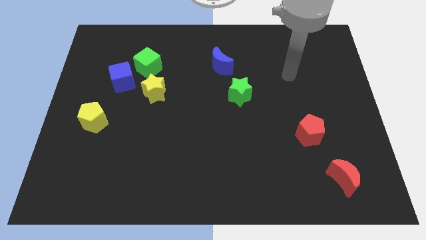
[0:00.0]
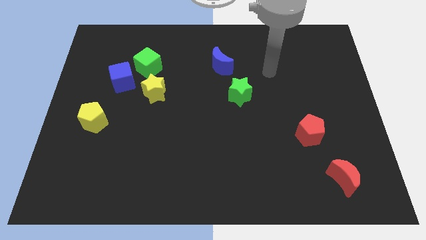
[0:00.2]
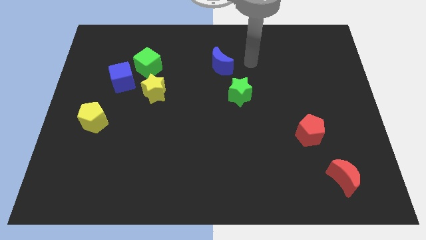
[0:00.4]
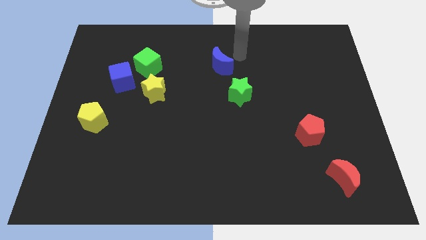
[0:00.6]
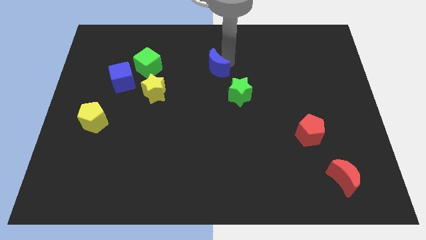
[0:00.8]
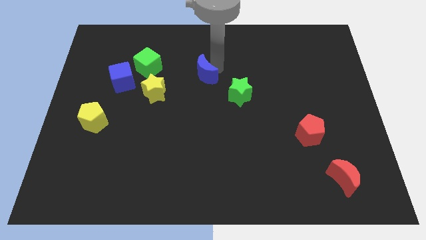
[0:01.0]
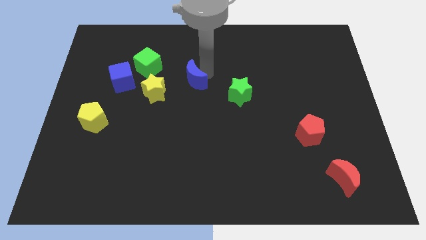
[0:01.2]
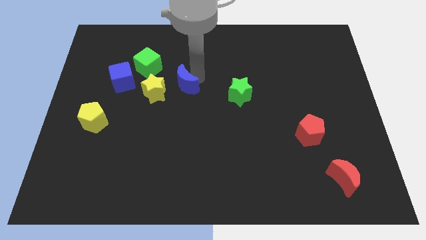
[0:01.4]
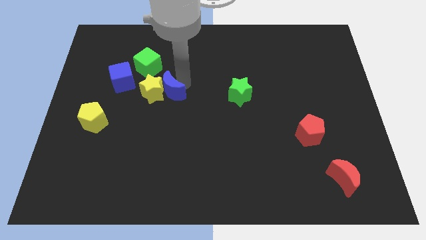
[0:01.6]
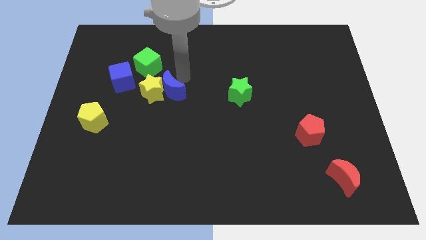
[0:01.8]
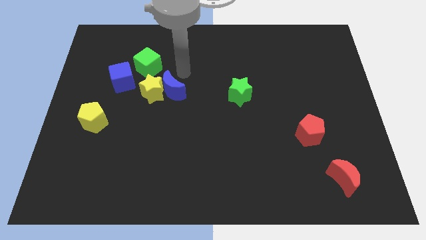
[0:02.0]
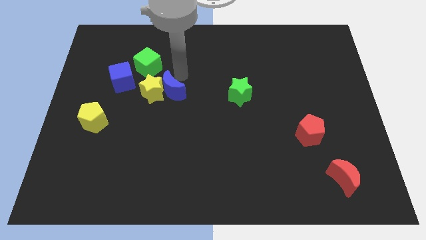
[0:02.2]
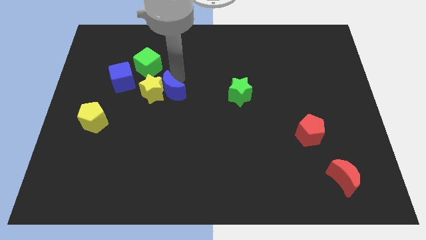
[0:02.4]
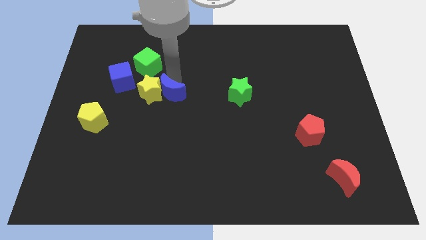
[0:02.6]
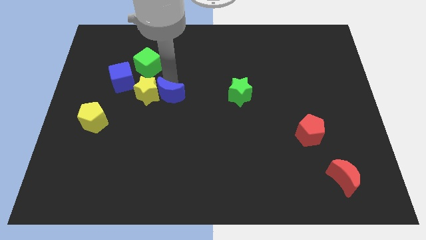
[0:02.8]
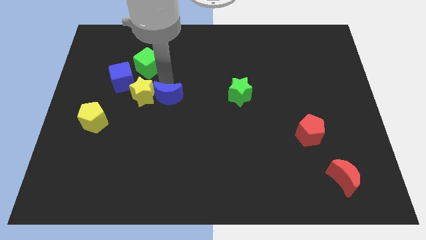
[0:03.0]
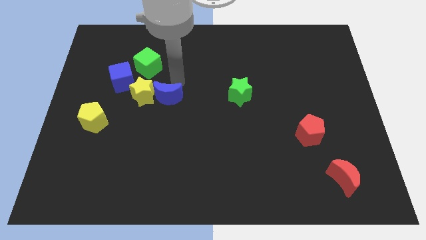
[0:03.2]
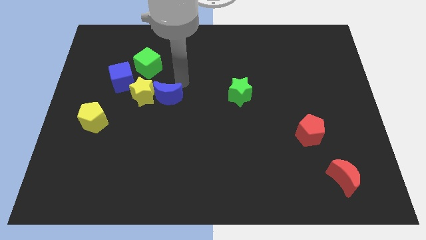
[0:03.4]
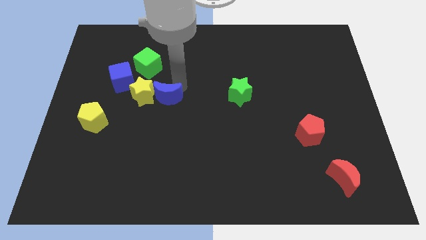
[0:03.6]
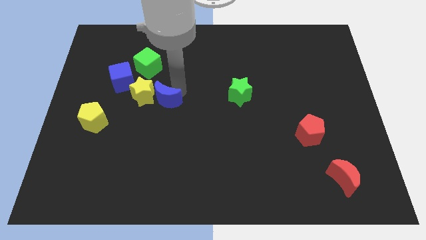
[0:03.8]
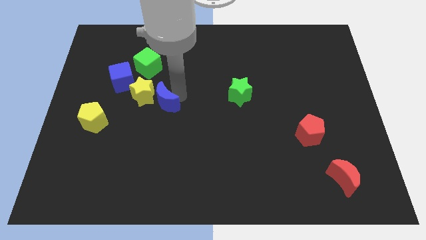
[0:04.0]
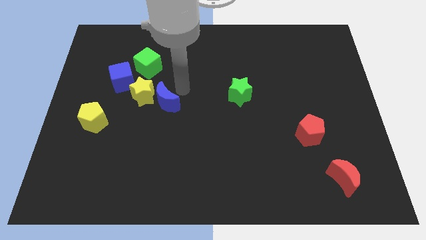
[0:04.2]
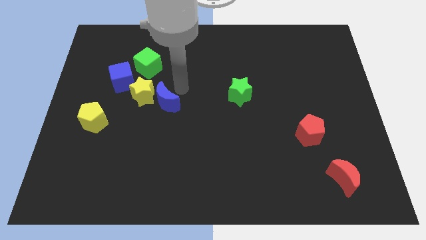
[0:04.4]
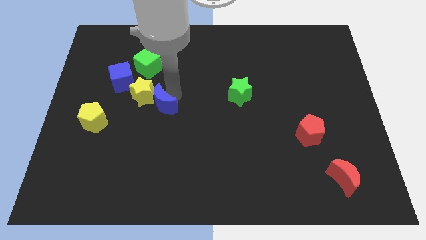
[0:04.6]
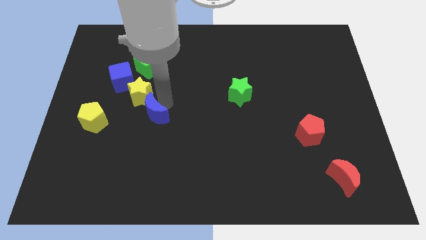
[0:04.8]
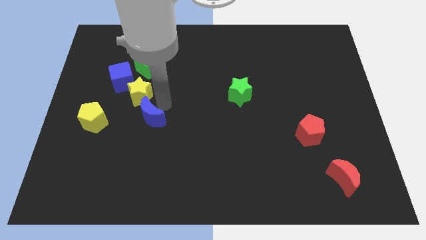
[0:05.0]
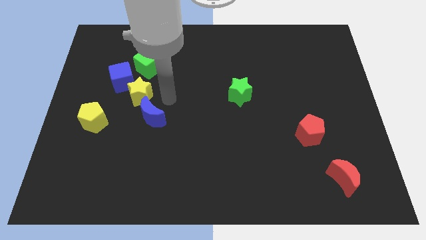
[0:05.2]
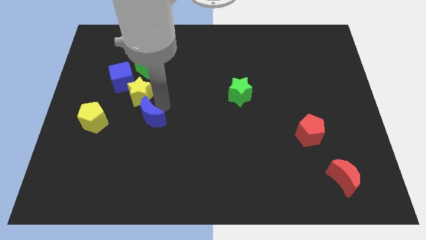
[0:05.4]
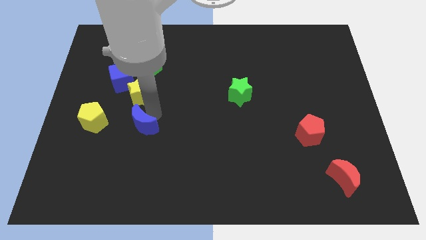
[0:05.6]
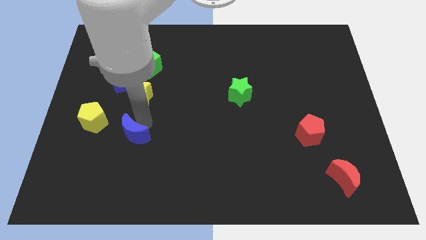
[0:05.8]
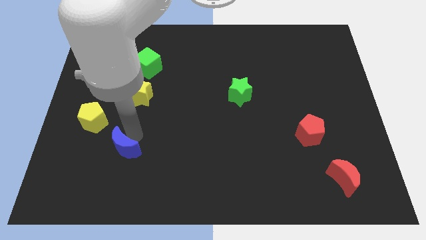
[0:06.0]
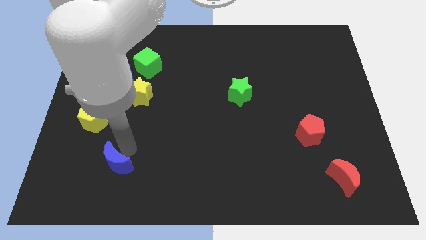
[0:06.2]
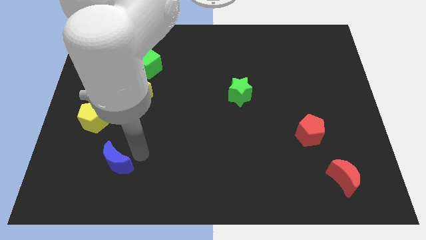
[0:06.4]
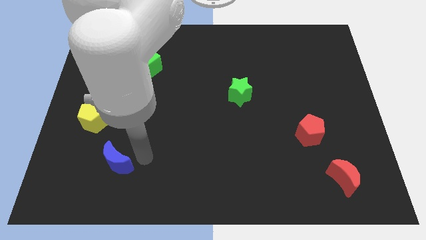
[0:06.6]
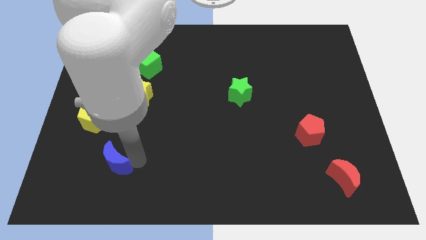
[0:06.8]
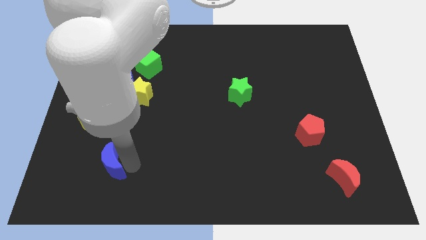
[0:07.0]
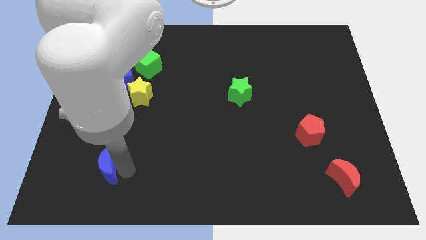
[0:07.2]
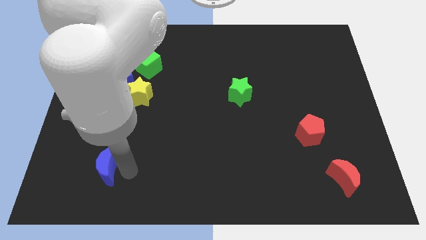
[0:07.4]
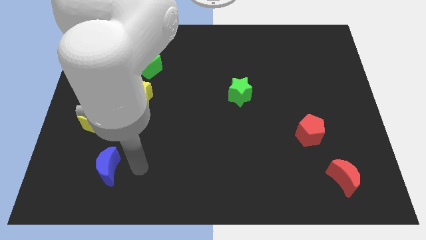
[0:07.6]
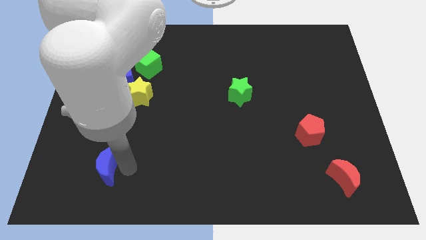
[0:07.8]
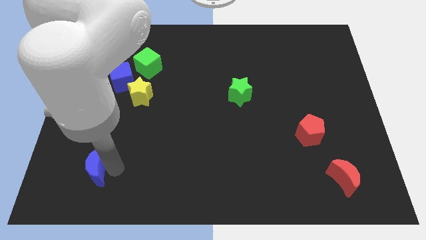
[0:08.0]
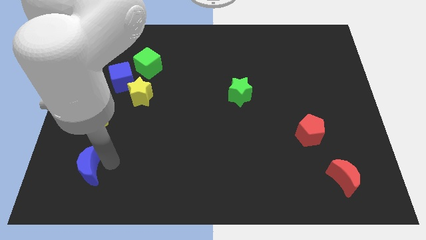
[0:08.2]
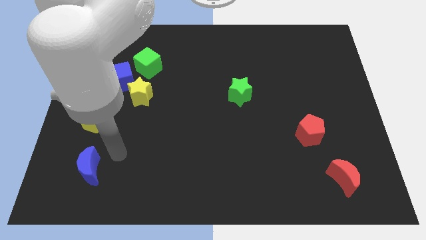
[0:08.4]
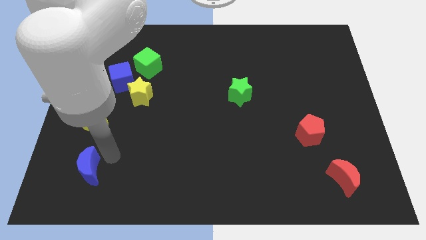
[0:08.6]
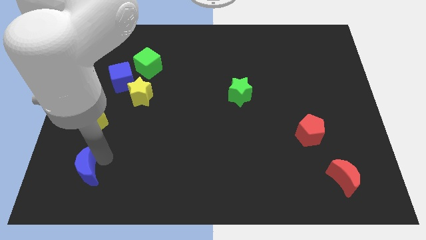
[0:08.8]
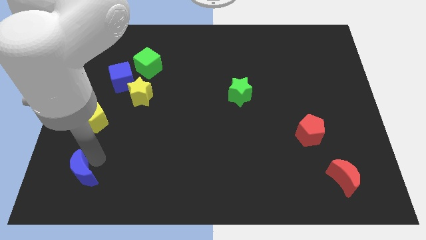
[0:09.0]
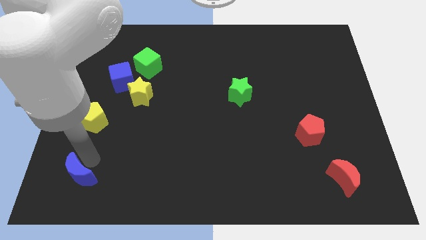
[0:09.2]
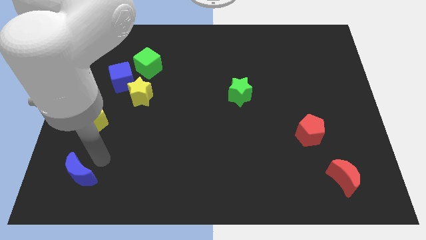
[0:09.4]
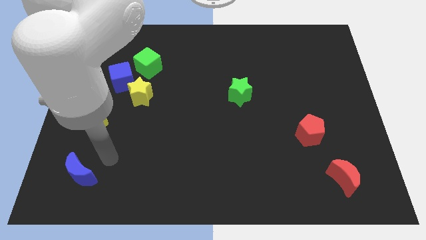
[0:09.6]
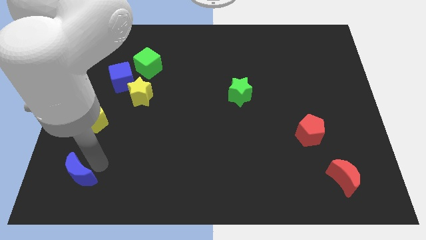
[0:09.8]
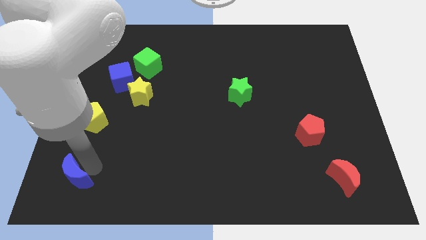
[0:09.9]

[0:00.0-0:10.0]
push the blue moon to the bottom left corner

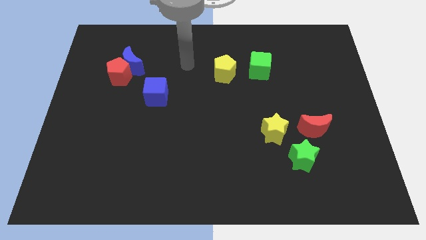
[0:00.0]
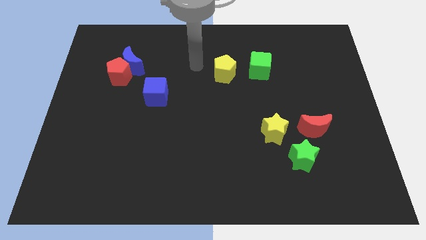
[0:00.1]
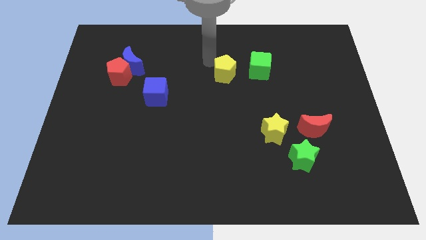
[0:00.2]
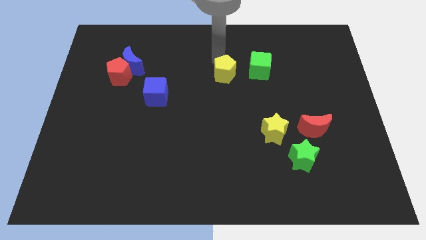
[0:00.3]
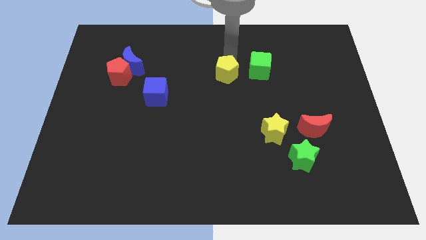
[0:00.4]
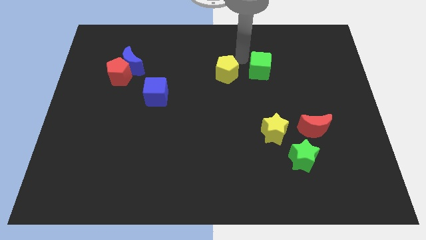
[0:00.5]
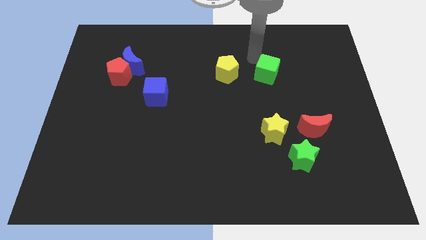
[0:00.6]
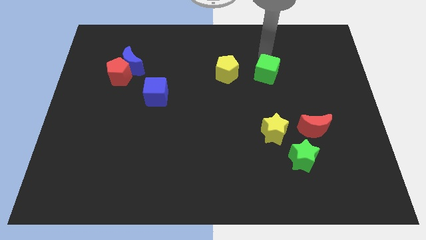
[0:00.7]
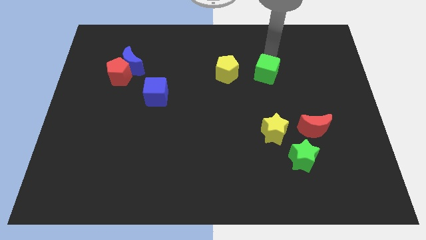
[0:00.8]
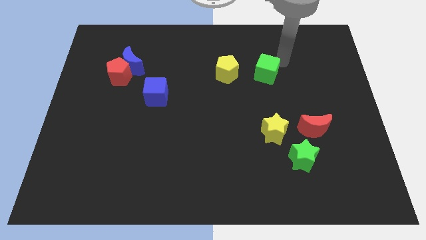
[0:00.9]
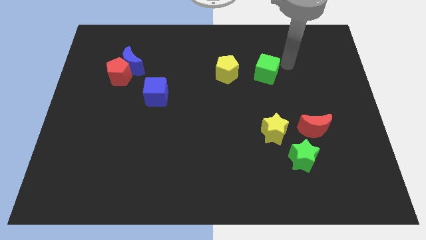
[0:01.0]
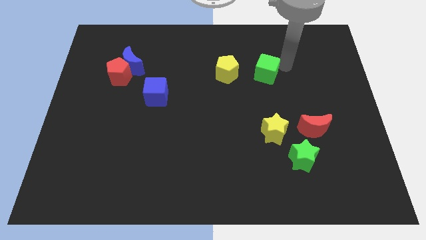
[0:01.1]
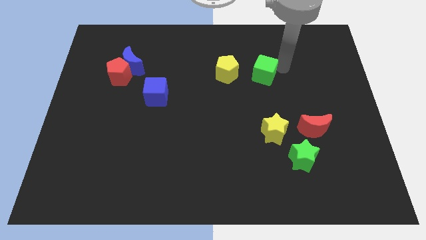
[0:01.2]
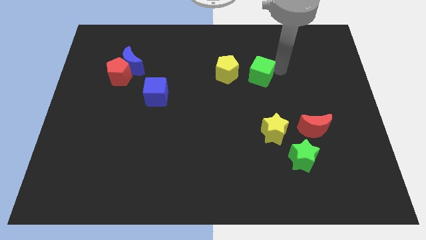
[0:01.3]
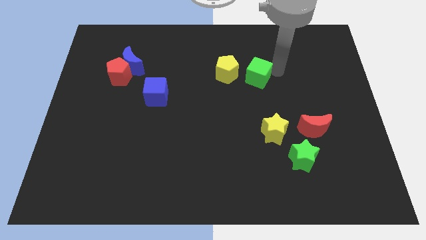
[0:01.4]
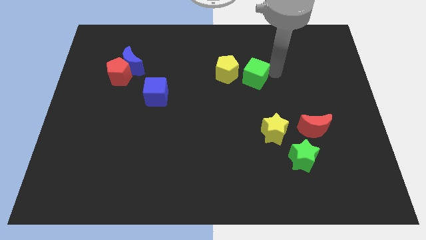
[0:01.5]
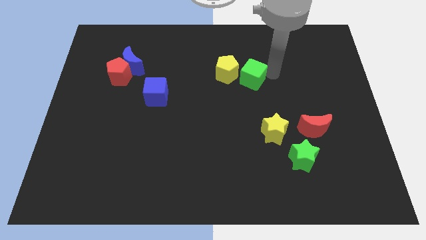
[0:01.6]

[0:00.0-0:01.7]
slide the green cube to the middle

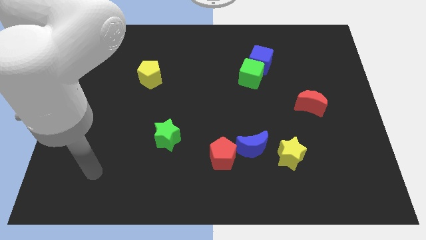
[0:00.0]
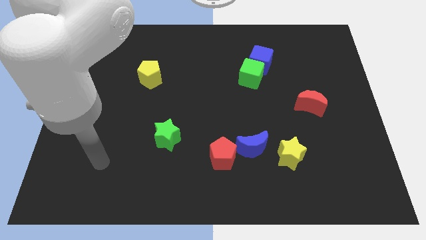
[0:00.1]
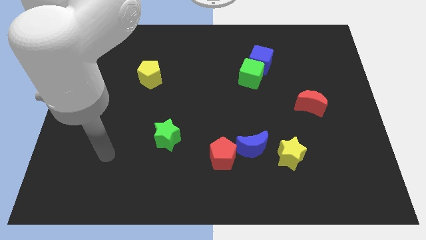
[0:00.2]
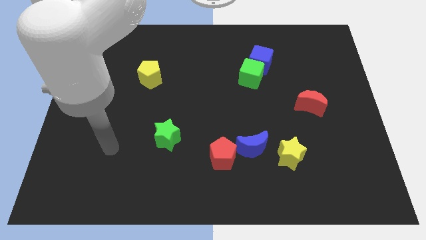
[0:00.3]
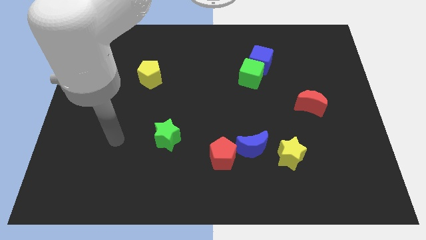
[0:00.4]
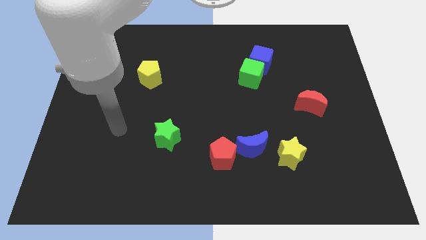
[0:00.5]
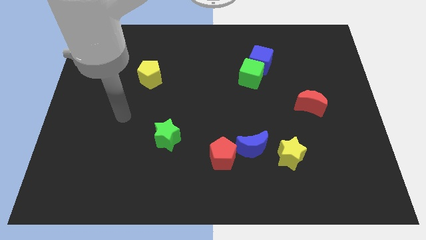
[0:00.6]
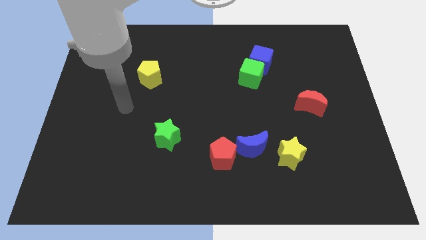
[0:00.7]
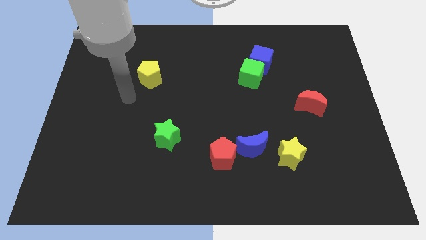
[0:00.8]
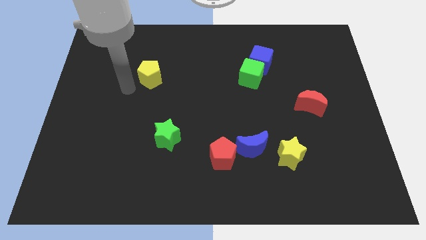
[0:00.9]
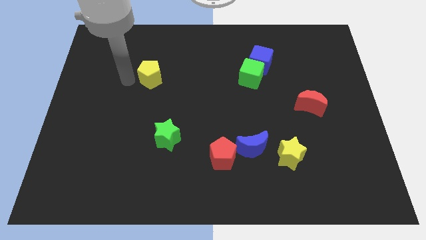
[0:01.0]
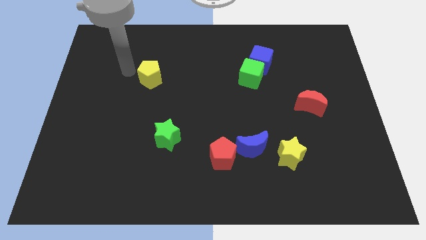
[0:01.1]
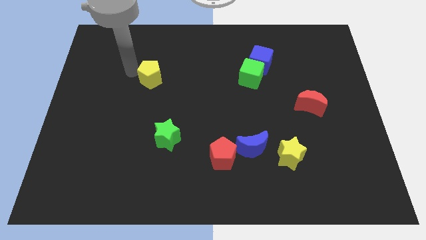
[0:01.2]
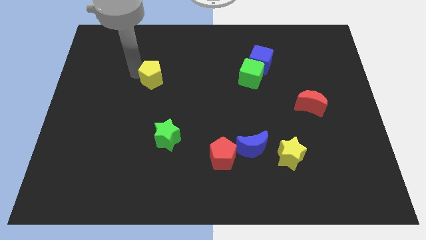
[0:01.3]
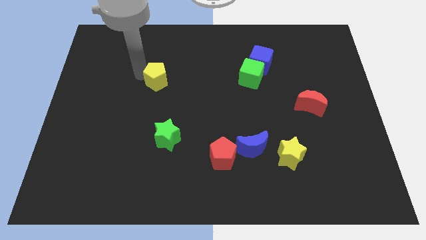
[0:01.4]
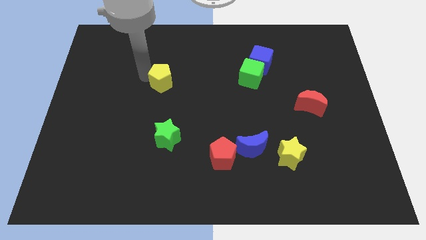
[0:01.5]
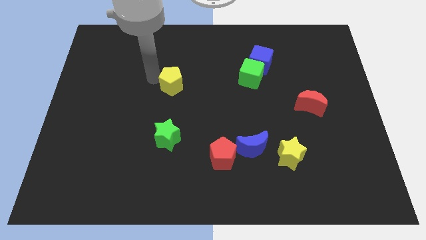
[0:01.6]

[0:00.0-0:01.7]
push the yellow pentagon to the center
